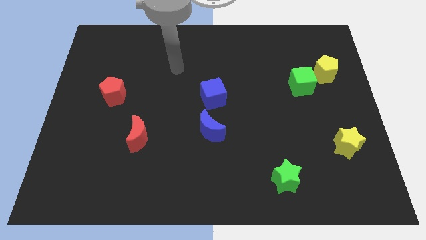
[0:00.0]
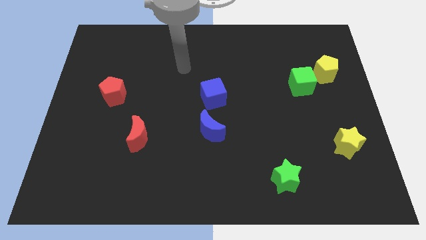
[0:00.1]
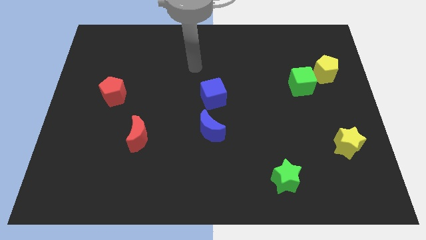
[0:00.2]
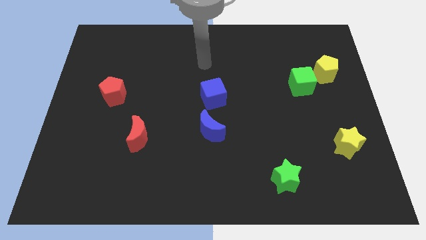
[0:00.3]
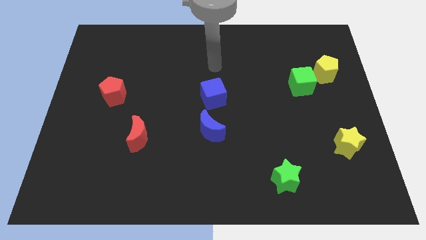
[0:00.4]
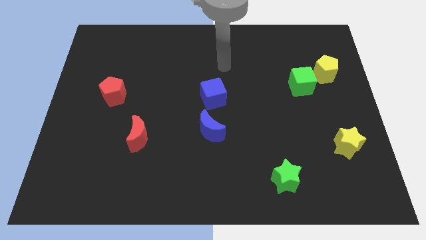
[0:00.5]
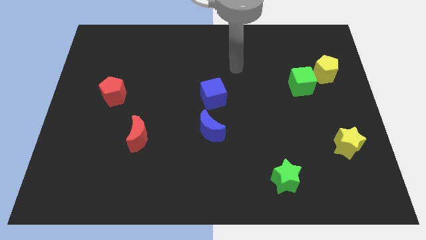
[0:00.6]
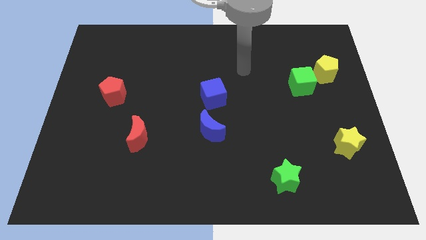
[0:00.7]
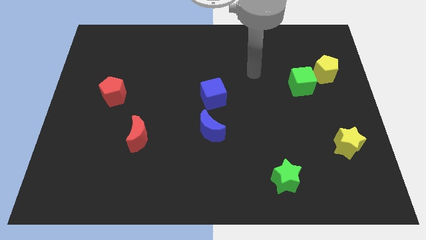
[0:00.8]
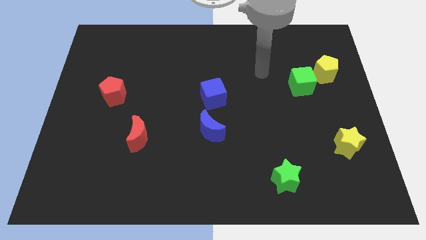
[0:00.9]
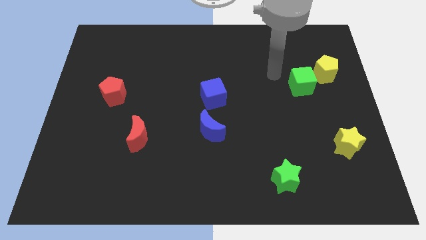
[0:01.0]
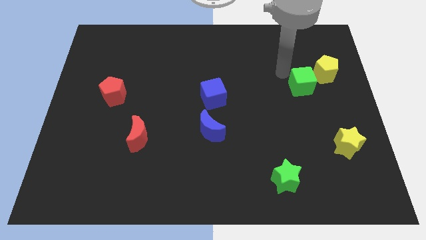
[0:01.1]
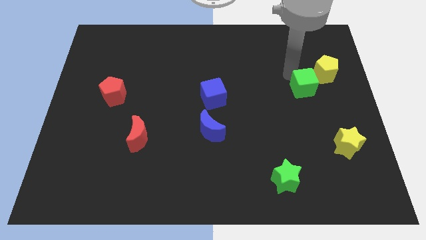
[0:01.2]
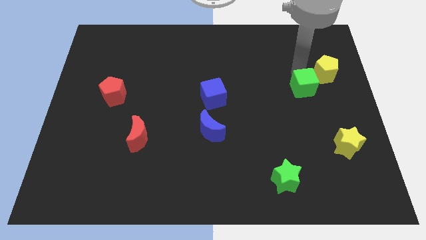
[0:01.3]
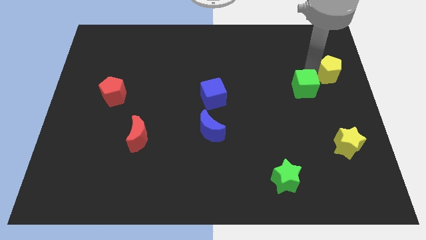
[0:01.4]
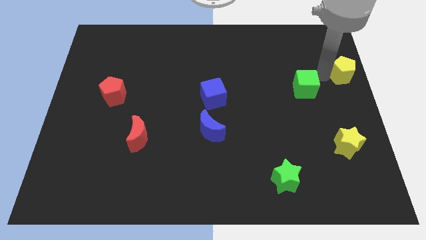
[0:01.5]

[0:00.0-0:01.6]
separate the green cube from the yellow pentagon

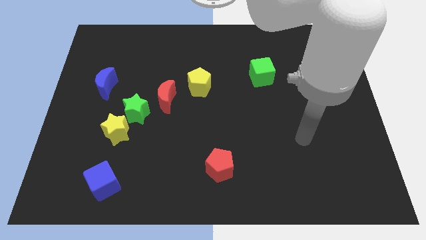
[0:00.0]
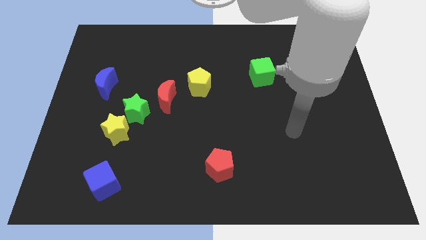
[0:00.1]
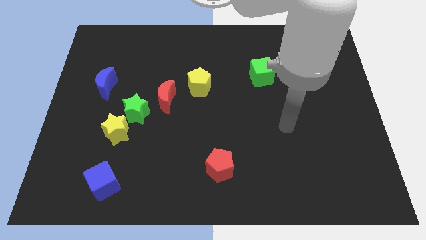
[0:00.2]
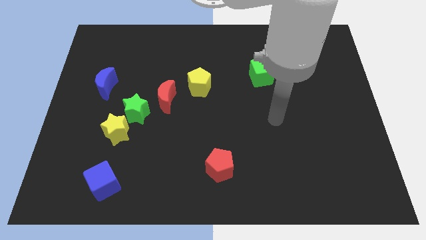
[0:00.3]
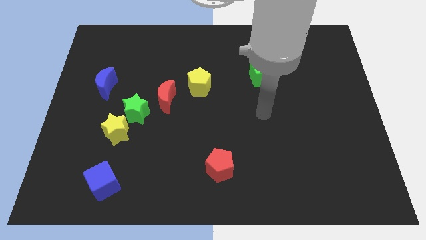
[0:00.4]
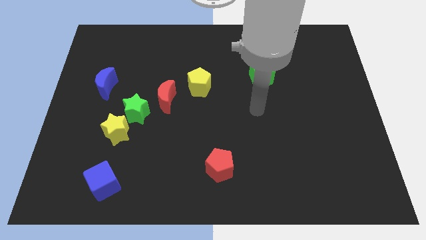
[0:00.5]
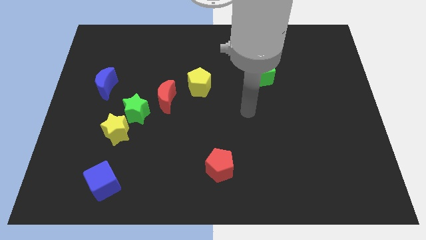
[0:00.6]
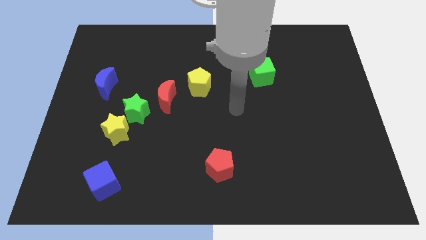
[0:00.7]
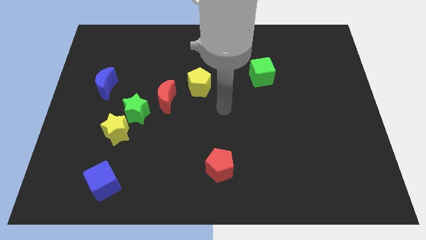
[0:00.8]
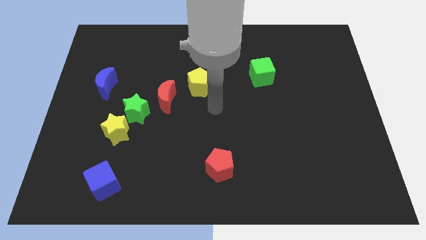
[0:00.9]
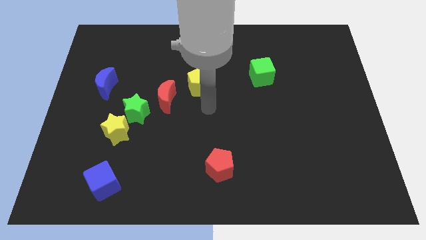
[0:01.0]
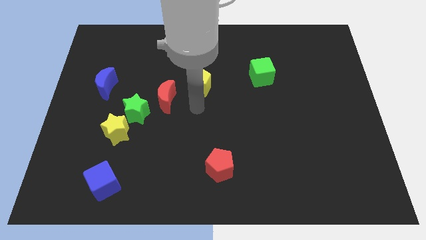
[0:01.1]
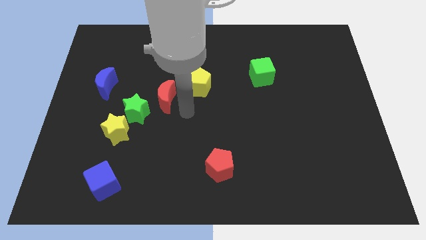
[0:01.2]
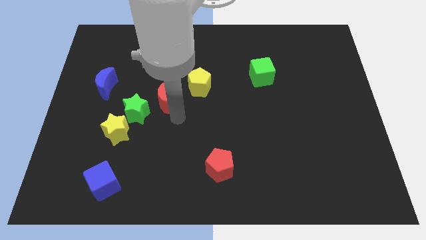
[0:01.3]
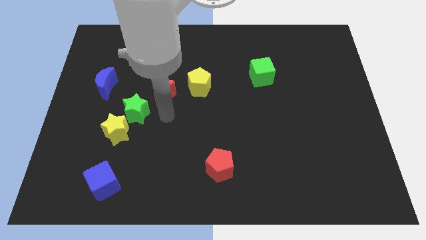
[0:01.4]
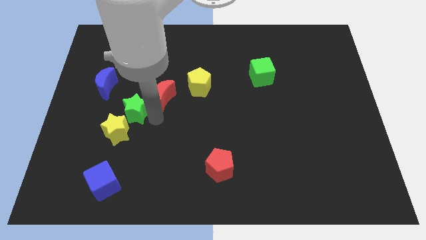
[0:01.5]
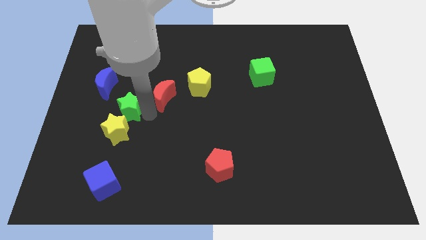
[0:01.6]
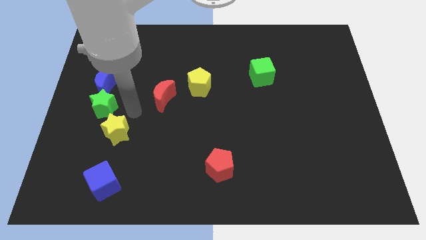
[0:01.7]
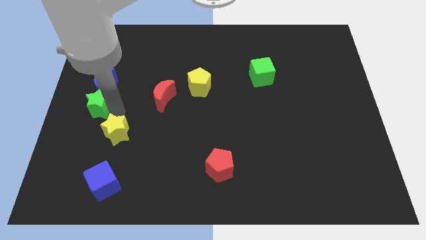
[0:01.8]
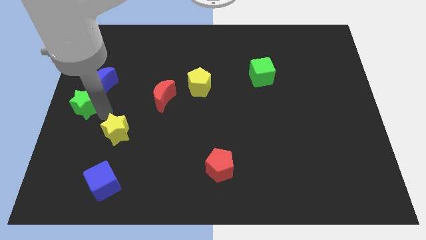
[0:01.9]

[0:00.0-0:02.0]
move the yellow star away from the green star

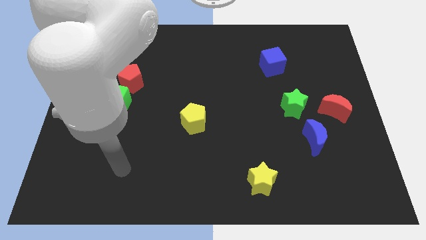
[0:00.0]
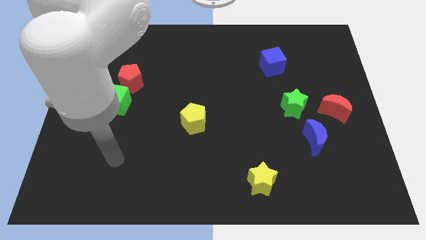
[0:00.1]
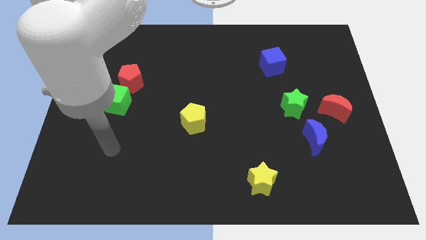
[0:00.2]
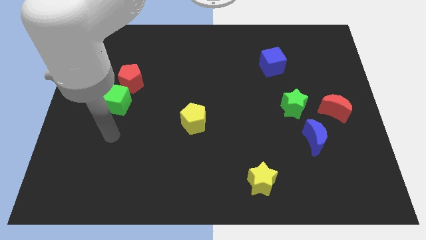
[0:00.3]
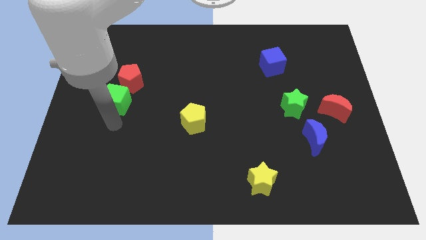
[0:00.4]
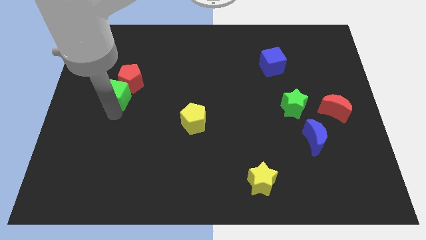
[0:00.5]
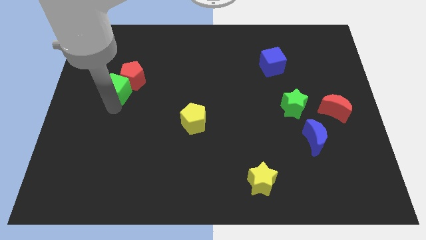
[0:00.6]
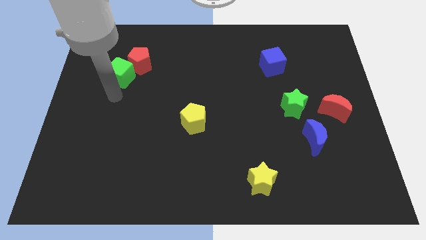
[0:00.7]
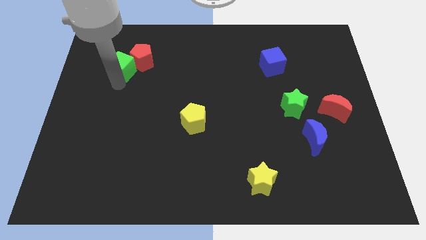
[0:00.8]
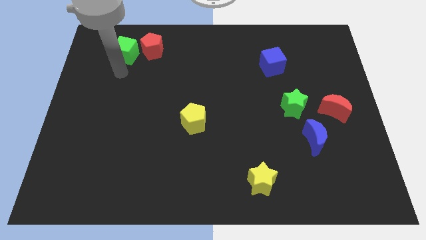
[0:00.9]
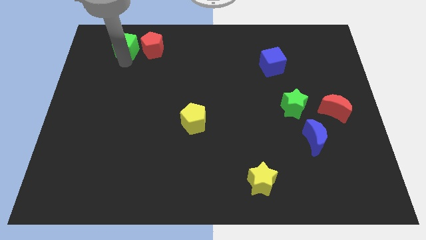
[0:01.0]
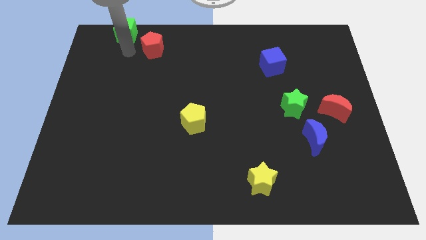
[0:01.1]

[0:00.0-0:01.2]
separate the red pentagon from the green cube

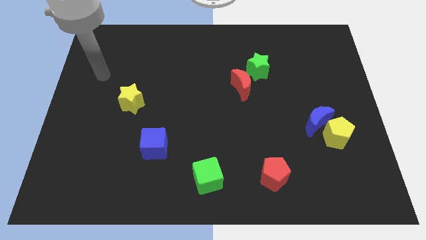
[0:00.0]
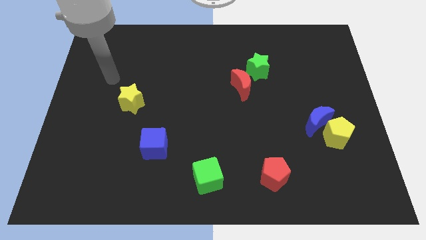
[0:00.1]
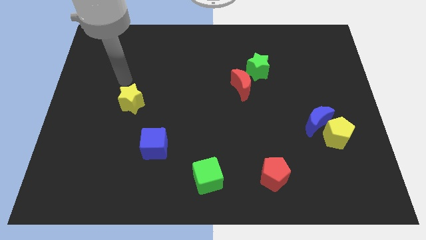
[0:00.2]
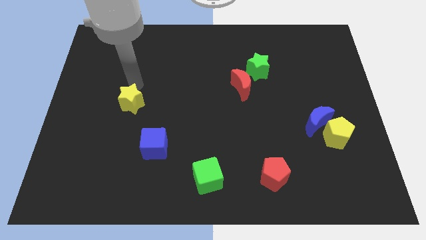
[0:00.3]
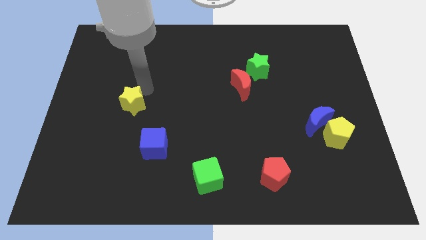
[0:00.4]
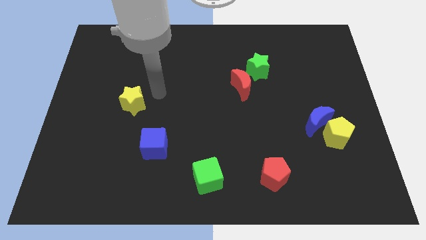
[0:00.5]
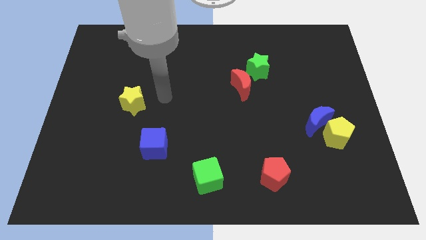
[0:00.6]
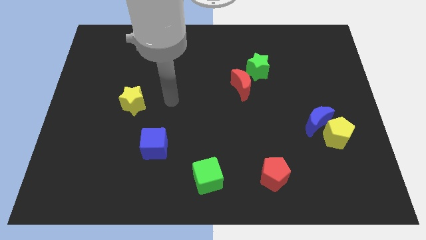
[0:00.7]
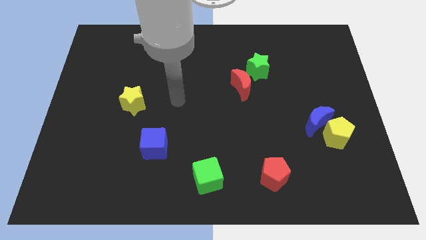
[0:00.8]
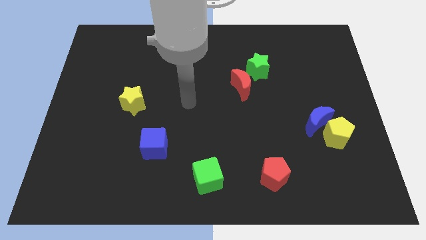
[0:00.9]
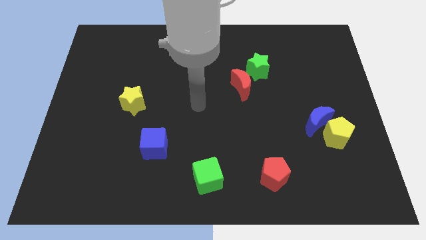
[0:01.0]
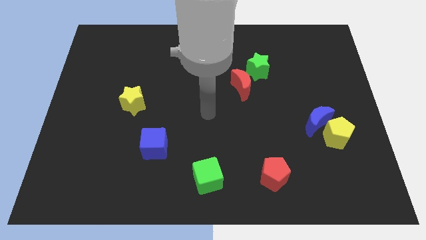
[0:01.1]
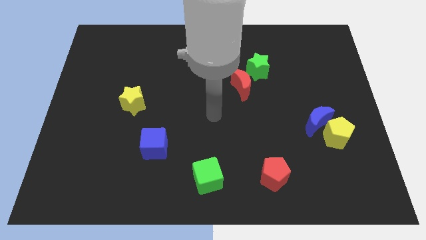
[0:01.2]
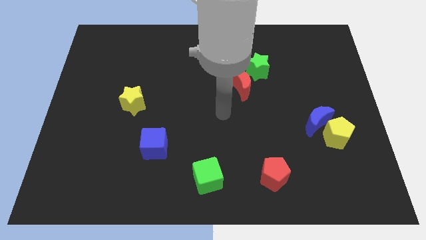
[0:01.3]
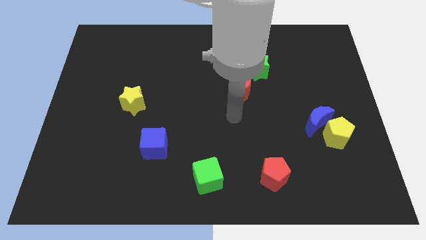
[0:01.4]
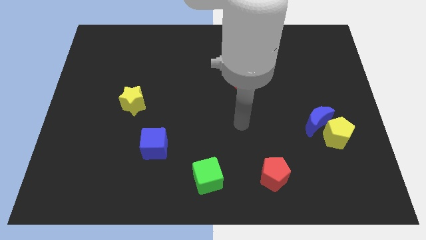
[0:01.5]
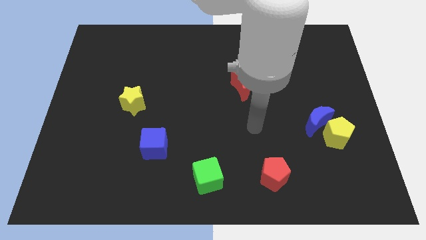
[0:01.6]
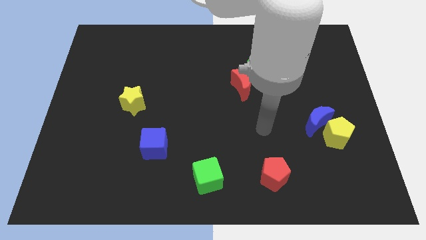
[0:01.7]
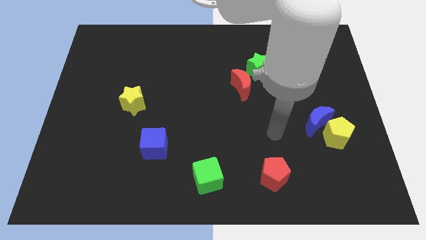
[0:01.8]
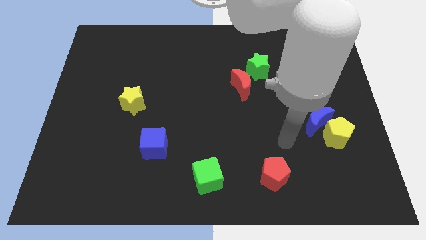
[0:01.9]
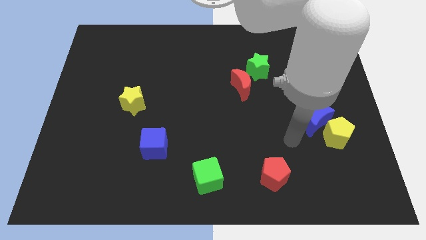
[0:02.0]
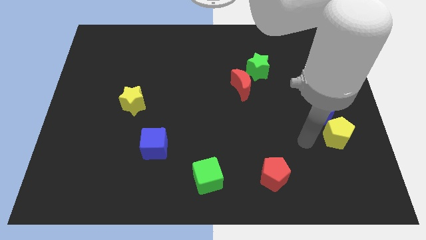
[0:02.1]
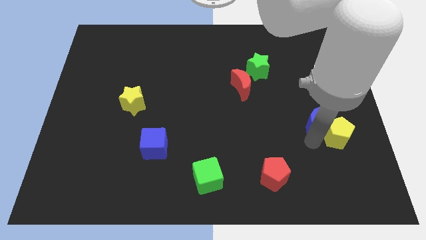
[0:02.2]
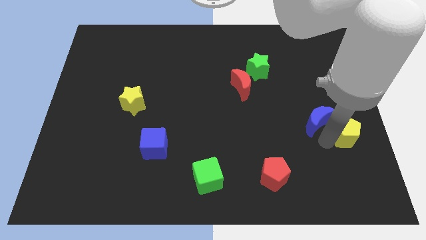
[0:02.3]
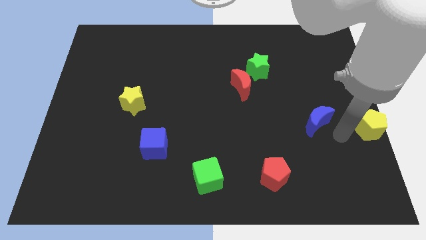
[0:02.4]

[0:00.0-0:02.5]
separate the blue moon from the yellow pentagon

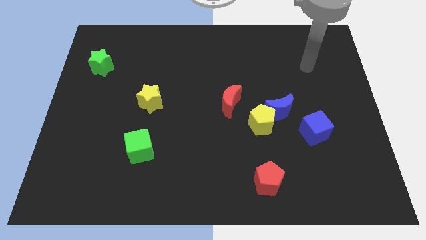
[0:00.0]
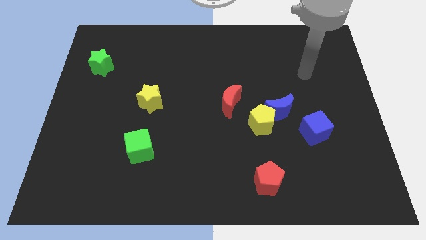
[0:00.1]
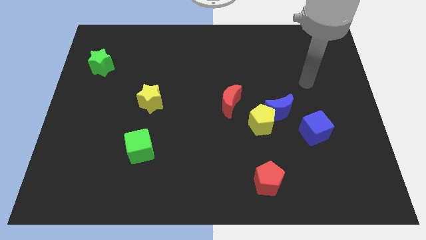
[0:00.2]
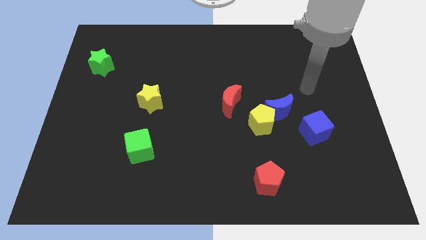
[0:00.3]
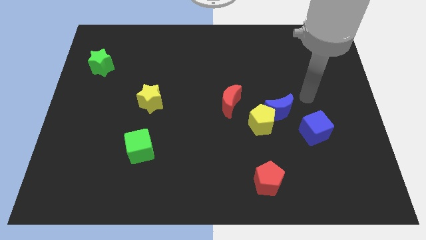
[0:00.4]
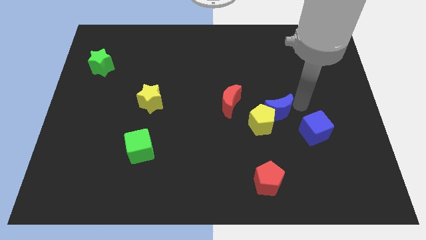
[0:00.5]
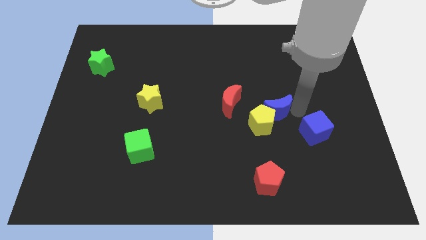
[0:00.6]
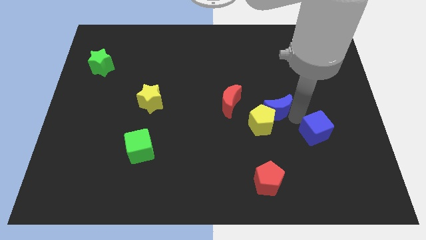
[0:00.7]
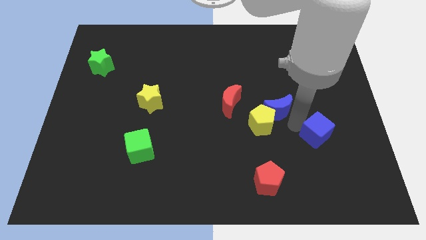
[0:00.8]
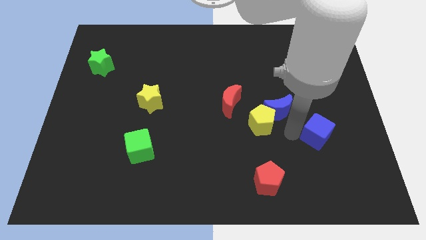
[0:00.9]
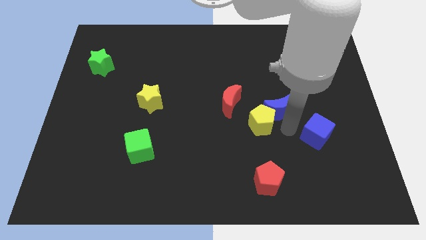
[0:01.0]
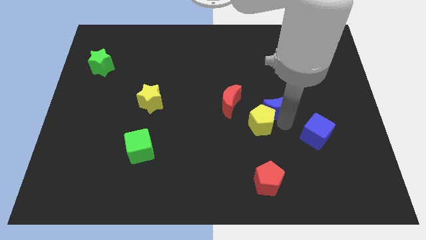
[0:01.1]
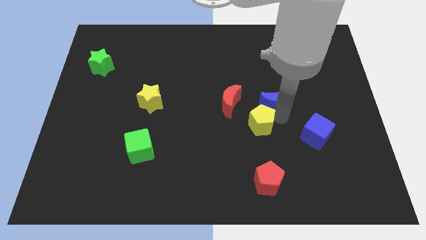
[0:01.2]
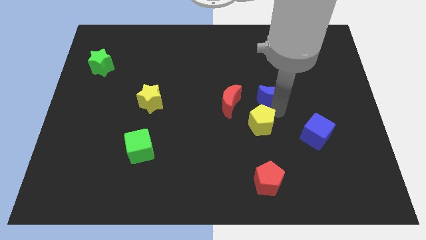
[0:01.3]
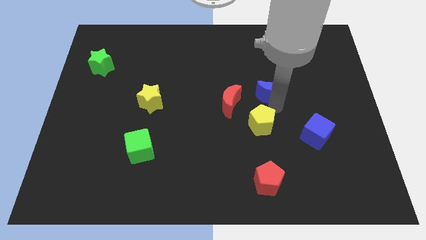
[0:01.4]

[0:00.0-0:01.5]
separate the blue moon from the yellow pentagon and blue cube

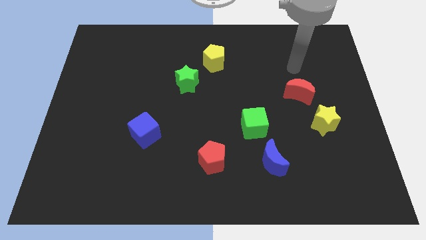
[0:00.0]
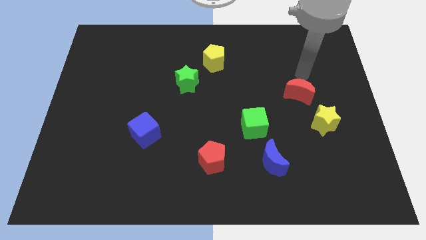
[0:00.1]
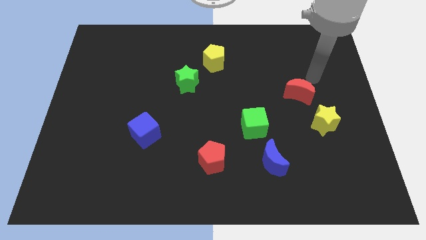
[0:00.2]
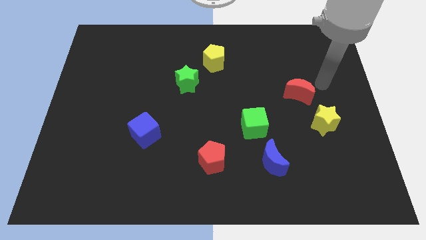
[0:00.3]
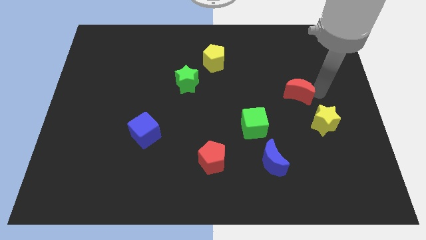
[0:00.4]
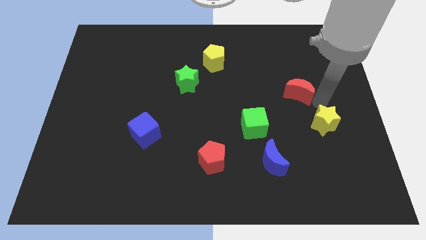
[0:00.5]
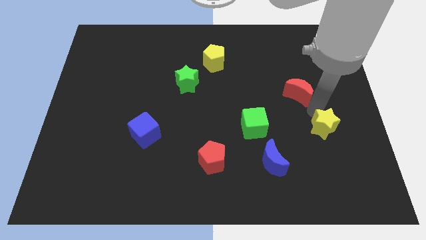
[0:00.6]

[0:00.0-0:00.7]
separate the red moon from the yellow star

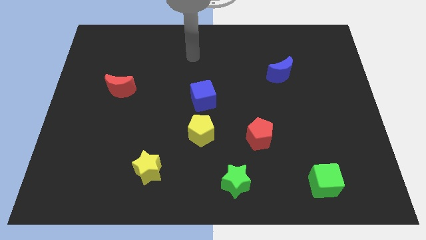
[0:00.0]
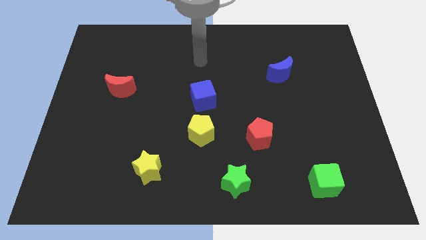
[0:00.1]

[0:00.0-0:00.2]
separate the blue cube from the yellow pentagon
